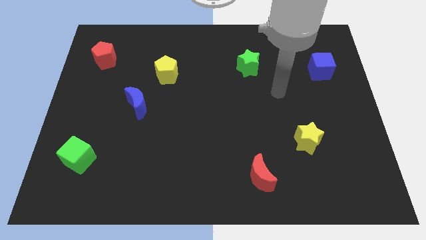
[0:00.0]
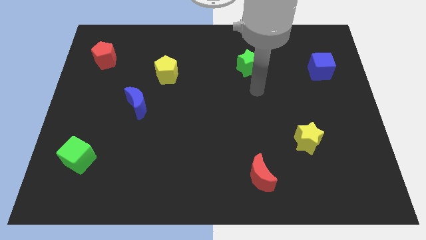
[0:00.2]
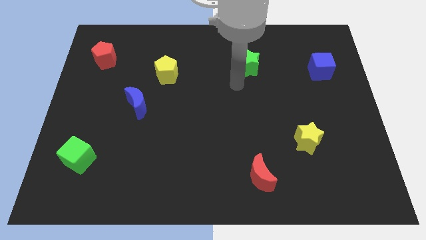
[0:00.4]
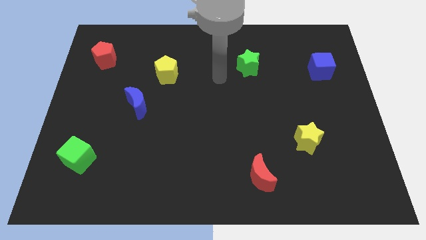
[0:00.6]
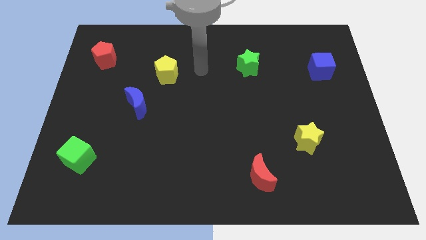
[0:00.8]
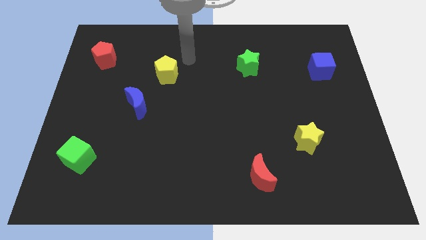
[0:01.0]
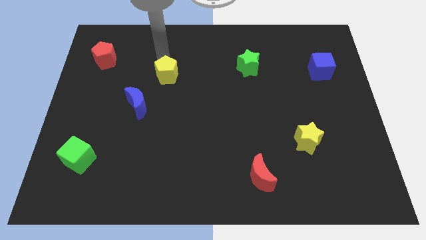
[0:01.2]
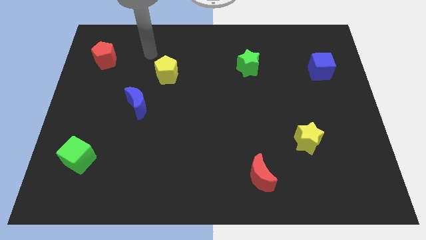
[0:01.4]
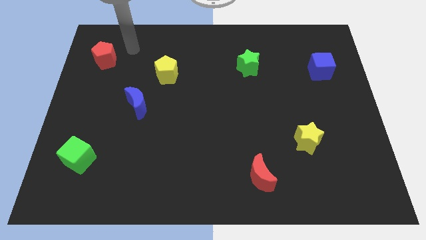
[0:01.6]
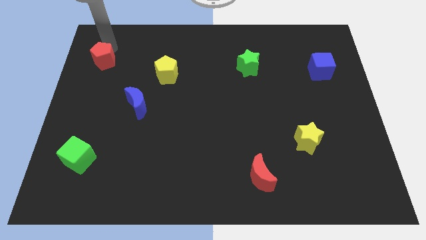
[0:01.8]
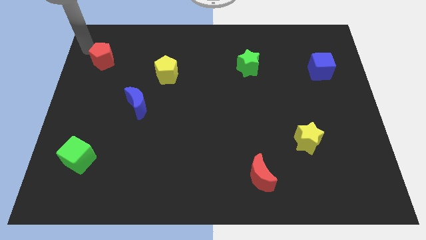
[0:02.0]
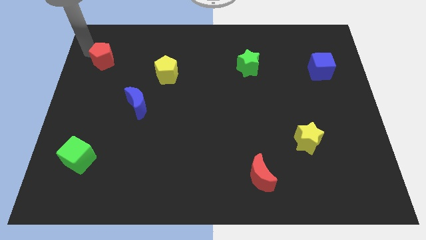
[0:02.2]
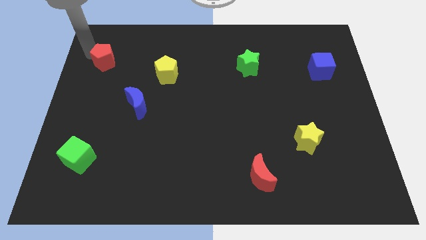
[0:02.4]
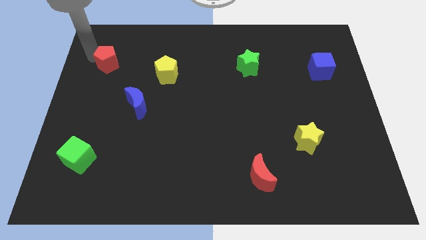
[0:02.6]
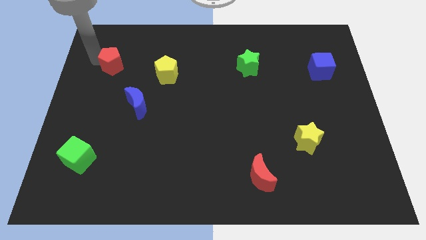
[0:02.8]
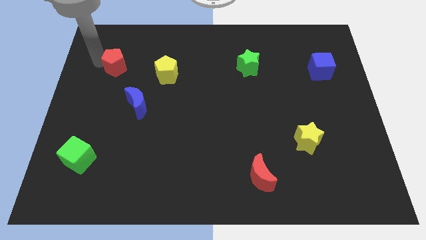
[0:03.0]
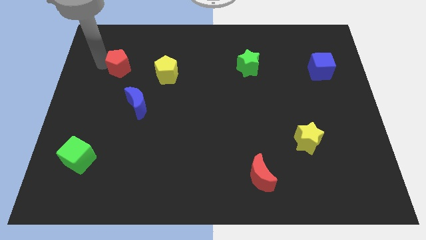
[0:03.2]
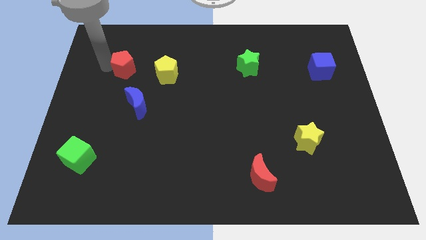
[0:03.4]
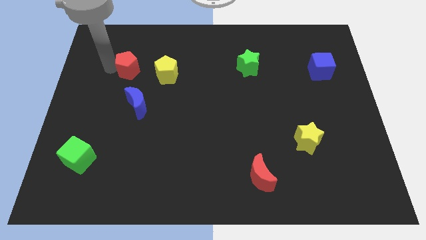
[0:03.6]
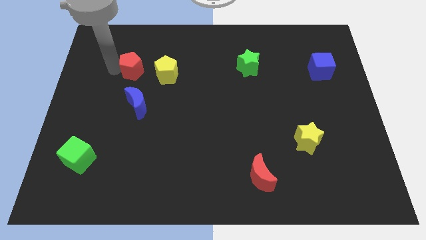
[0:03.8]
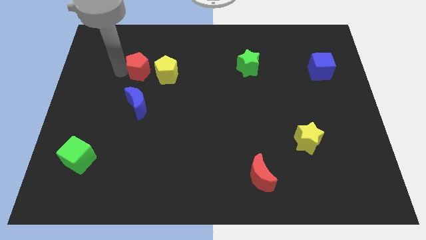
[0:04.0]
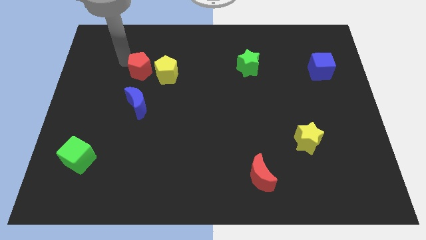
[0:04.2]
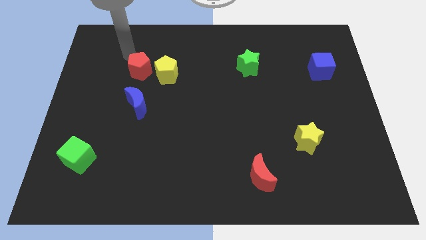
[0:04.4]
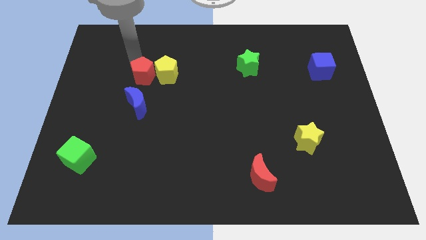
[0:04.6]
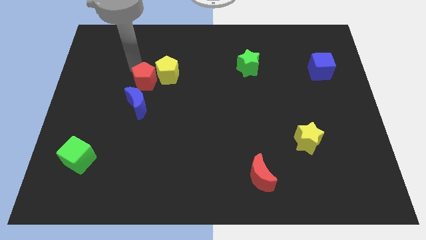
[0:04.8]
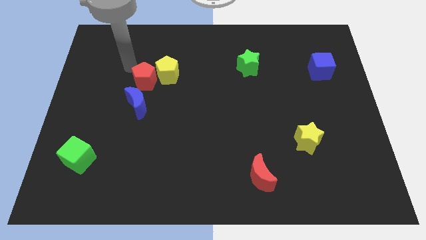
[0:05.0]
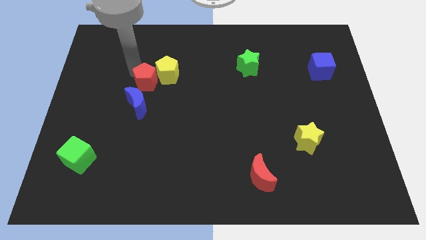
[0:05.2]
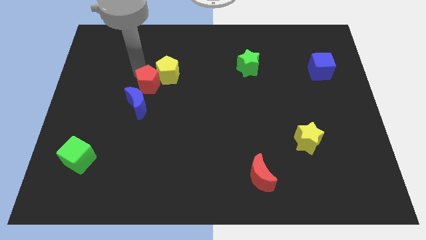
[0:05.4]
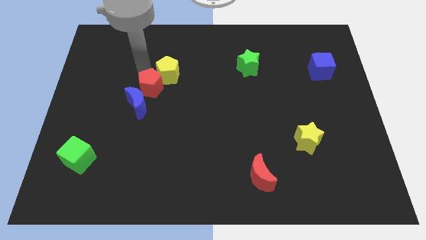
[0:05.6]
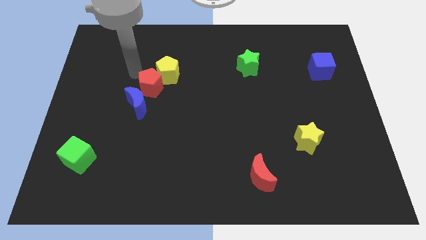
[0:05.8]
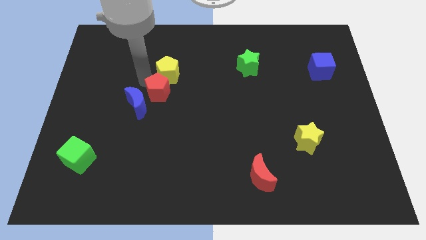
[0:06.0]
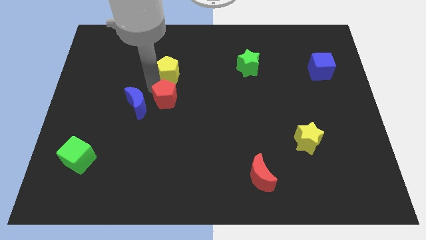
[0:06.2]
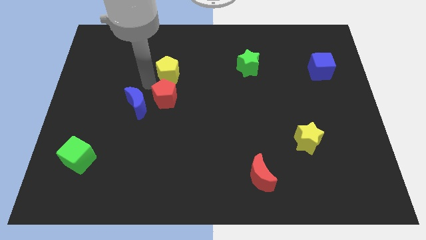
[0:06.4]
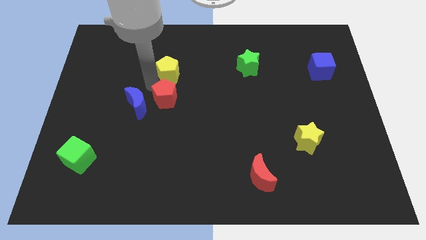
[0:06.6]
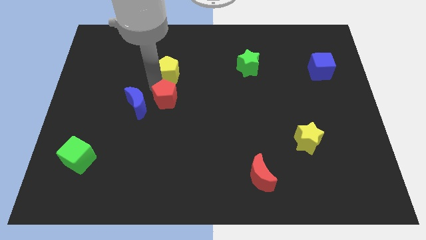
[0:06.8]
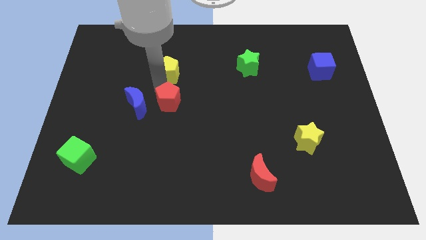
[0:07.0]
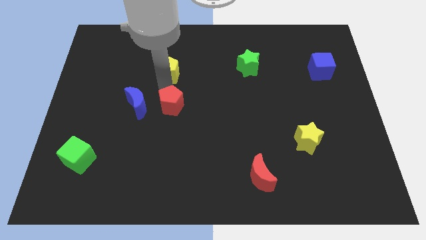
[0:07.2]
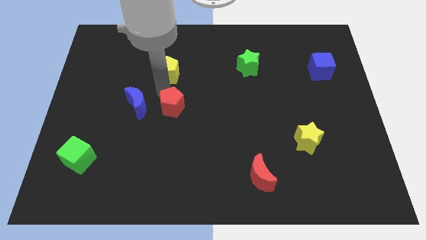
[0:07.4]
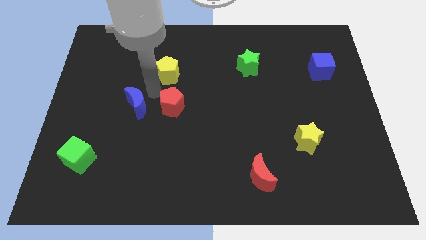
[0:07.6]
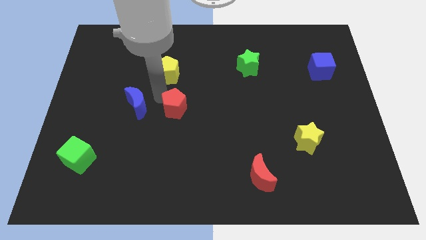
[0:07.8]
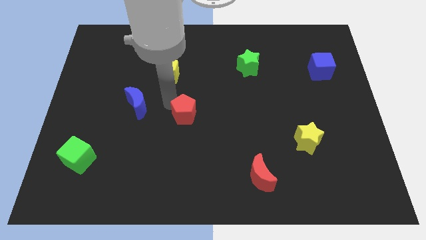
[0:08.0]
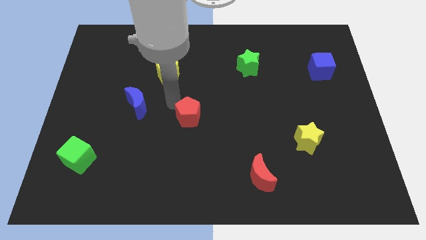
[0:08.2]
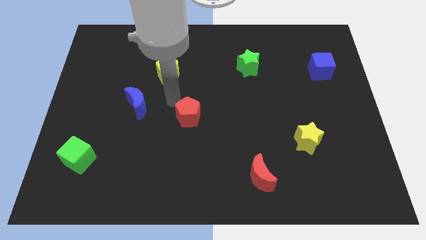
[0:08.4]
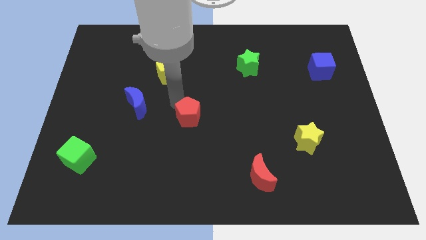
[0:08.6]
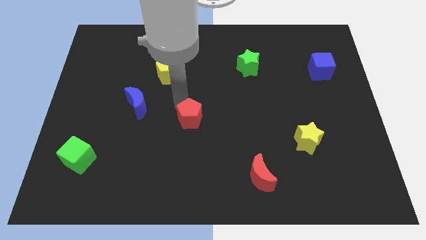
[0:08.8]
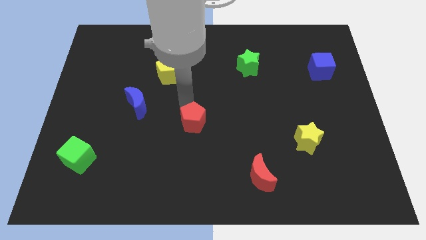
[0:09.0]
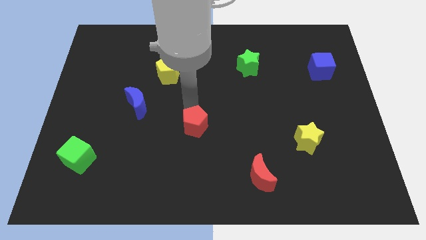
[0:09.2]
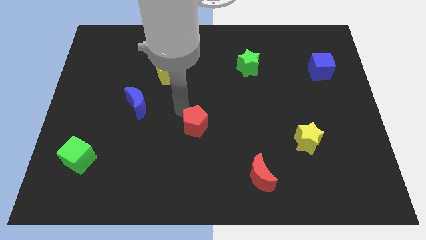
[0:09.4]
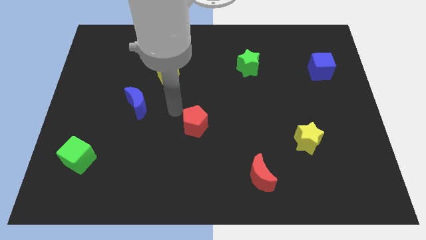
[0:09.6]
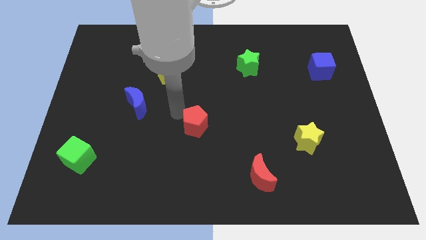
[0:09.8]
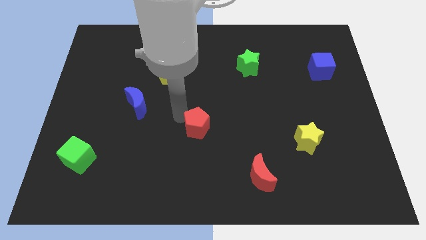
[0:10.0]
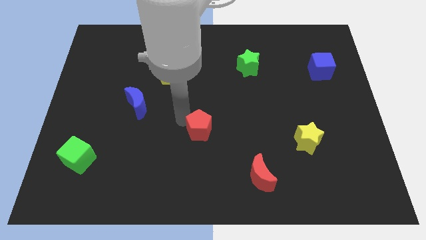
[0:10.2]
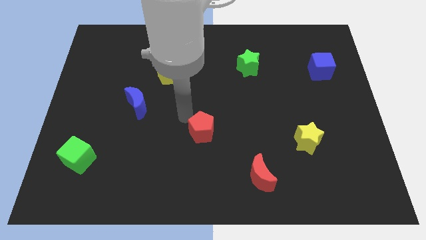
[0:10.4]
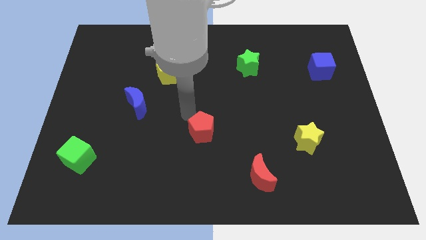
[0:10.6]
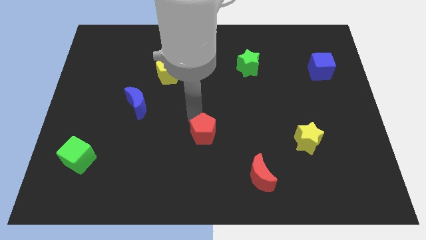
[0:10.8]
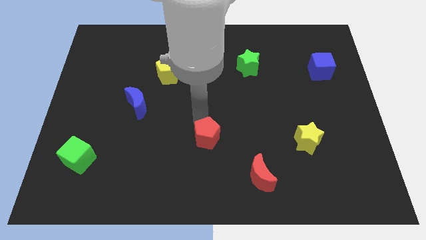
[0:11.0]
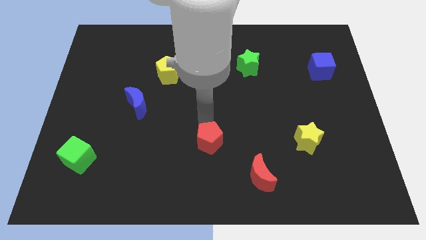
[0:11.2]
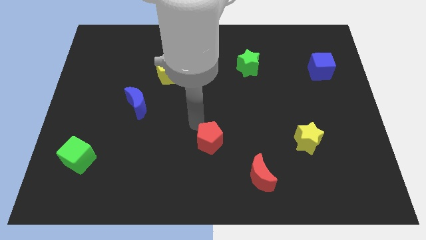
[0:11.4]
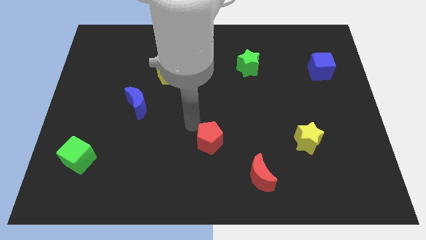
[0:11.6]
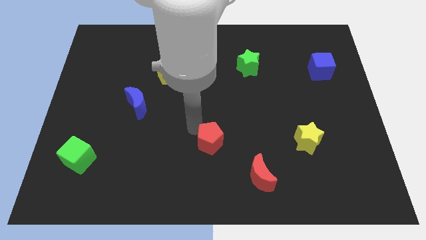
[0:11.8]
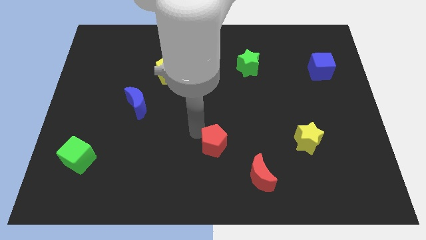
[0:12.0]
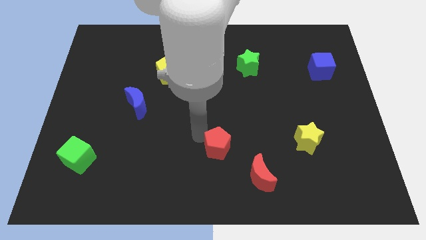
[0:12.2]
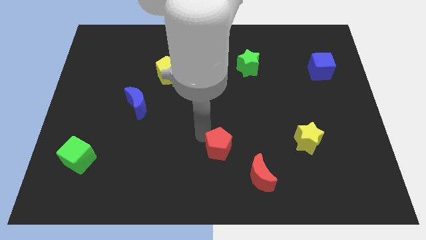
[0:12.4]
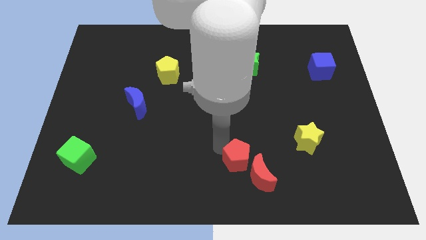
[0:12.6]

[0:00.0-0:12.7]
slide the red pentagon towards the red moon

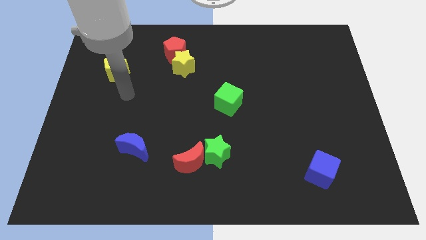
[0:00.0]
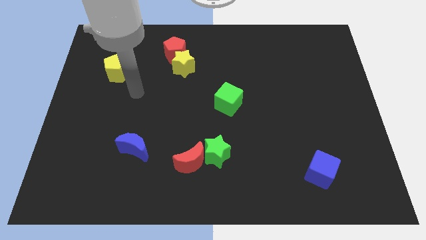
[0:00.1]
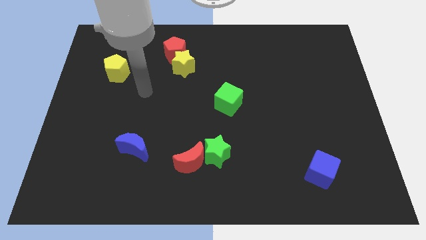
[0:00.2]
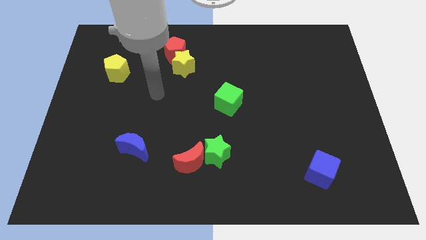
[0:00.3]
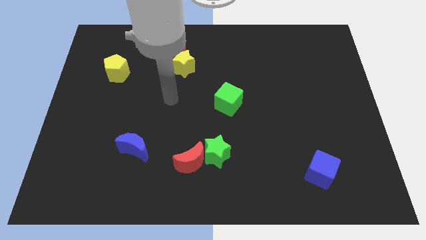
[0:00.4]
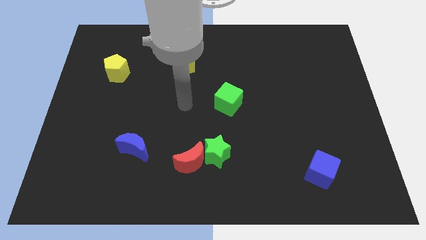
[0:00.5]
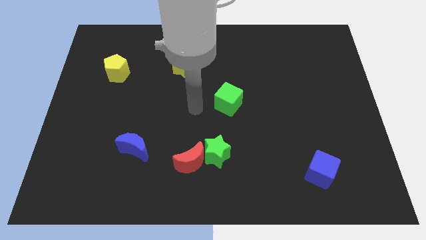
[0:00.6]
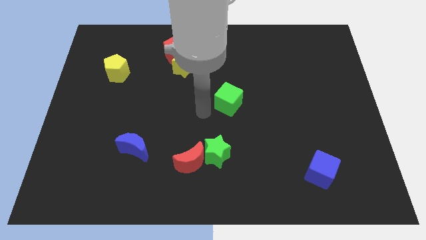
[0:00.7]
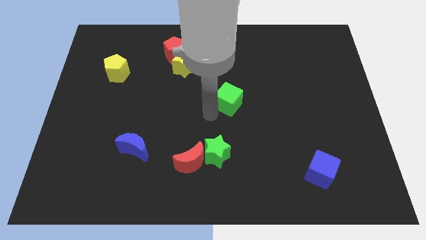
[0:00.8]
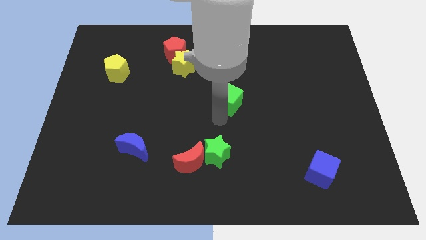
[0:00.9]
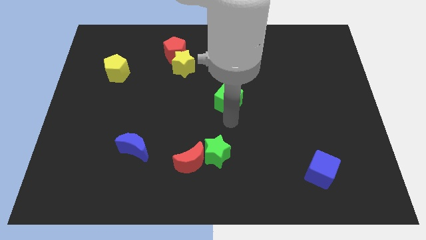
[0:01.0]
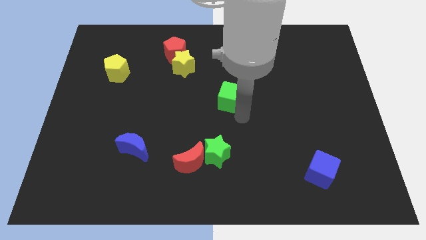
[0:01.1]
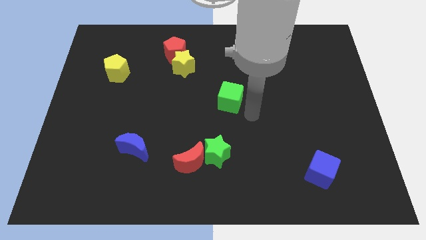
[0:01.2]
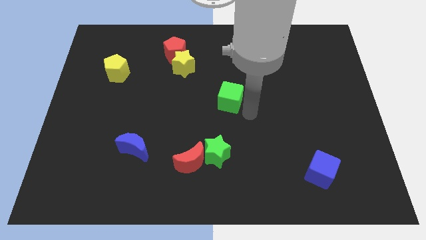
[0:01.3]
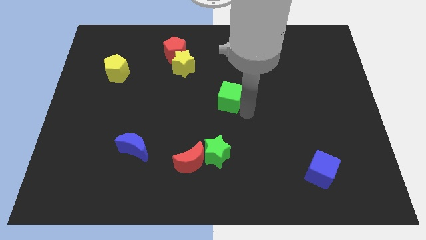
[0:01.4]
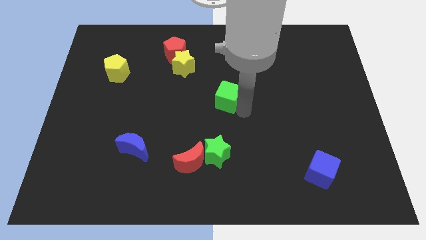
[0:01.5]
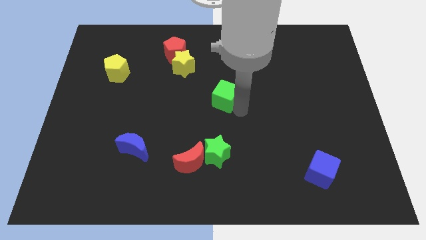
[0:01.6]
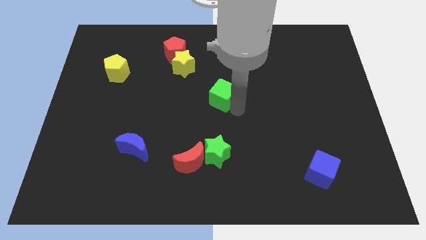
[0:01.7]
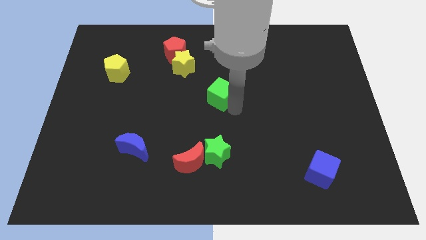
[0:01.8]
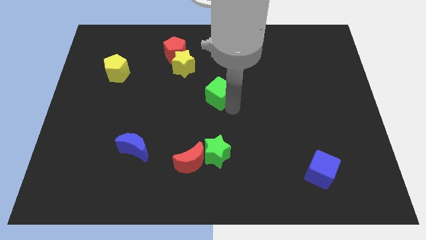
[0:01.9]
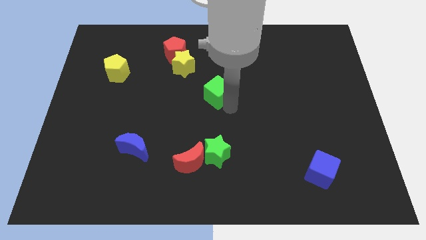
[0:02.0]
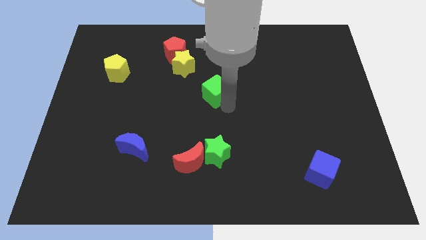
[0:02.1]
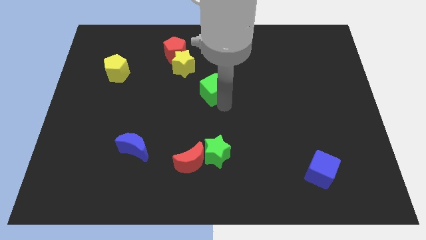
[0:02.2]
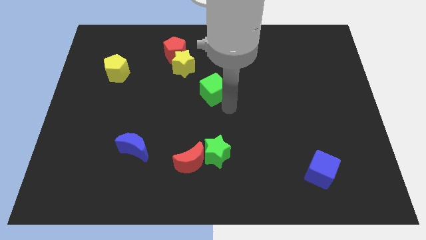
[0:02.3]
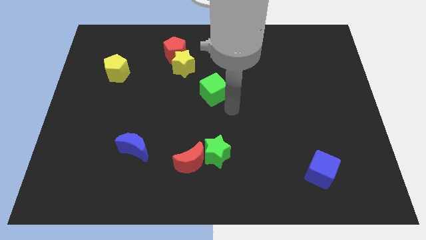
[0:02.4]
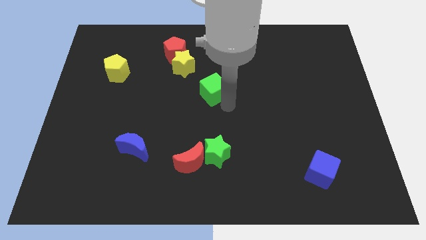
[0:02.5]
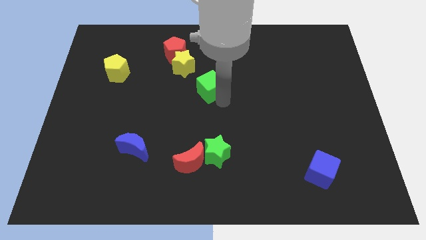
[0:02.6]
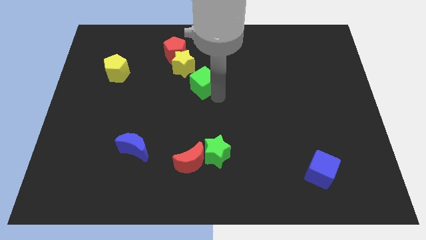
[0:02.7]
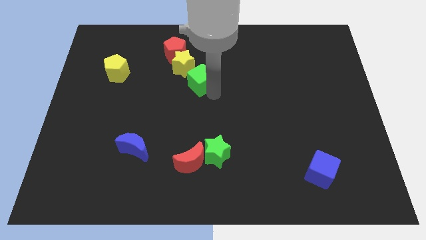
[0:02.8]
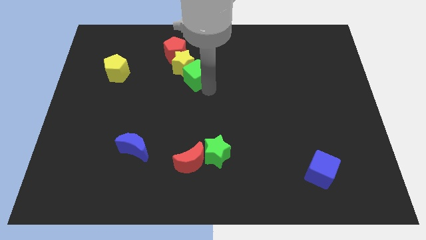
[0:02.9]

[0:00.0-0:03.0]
slide the green cube next to the yellow star
